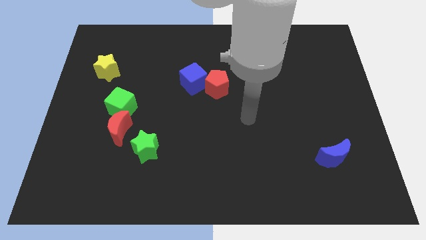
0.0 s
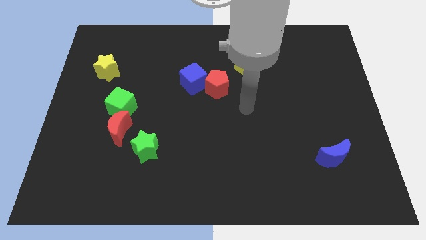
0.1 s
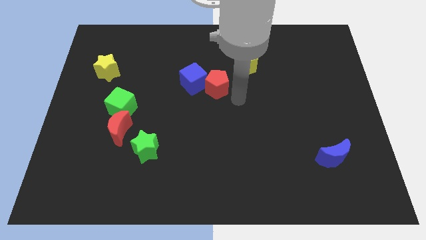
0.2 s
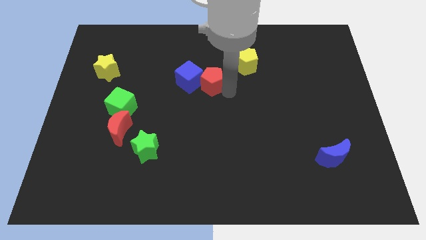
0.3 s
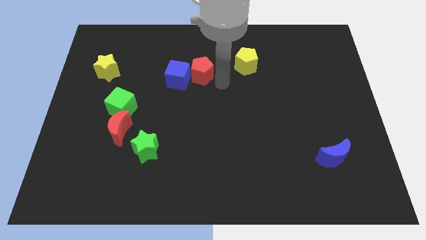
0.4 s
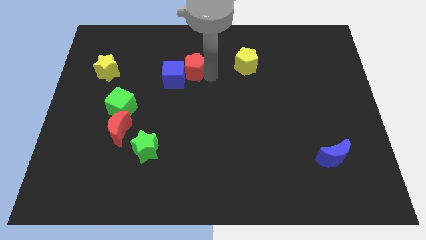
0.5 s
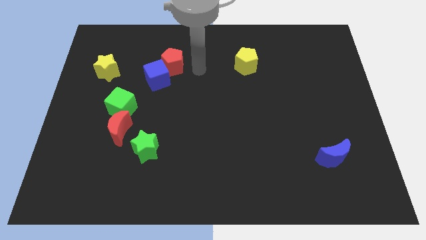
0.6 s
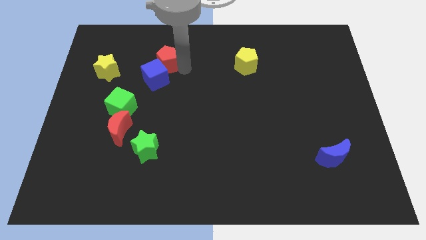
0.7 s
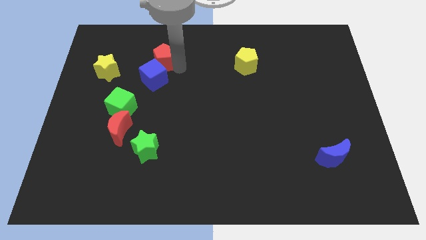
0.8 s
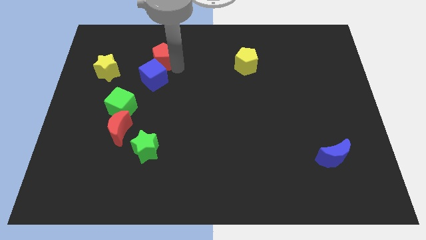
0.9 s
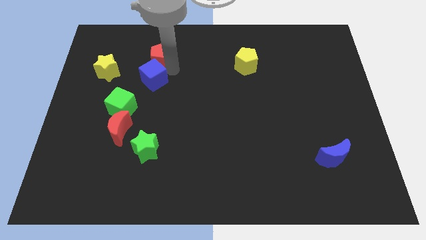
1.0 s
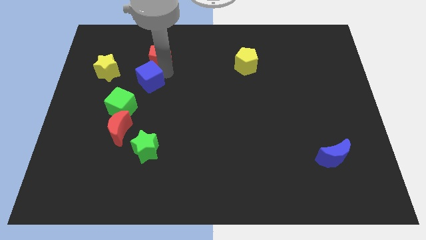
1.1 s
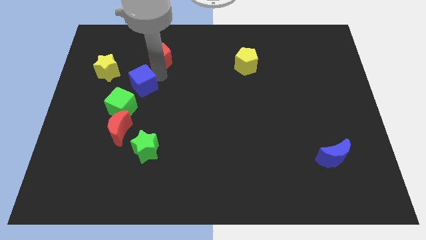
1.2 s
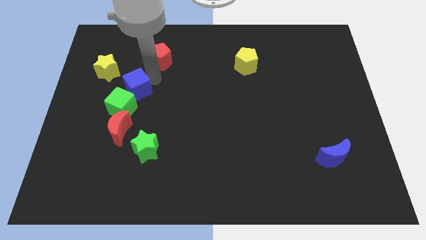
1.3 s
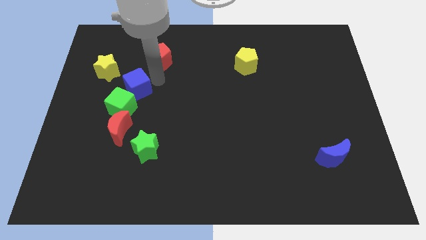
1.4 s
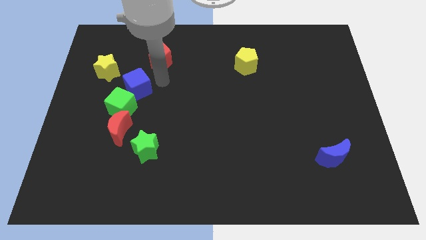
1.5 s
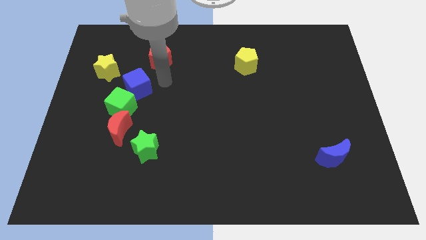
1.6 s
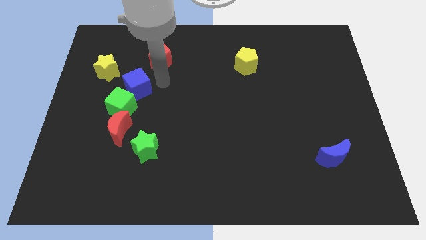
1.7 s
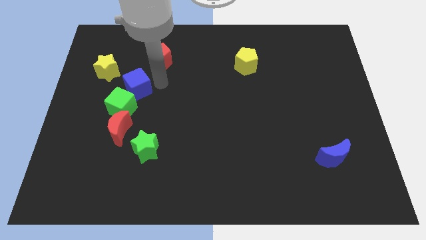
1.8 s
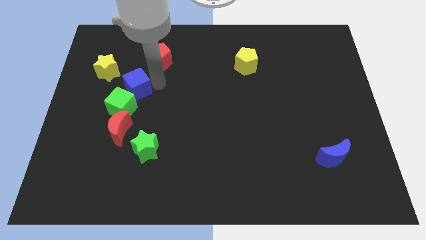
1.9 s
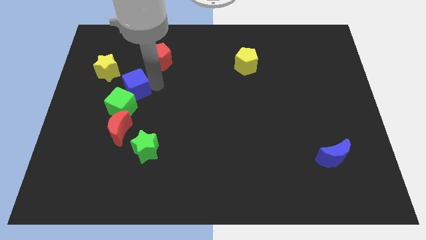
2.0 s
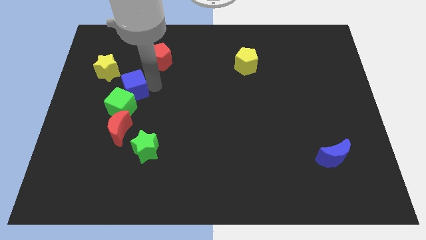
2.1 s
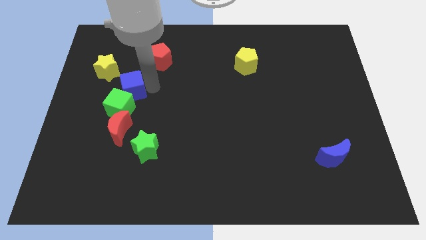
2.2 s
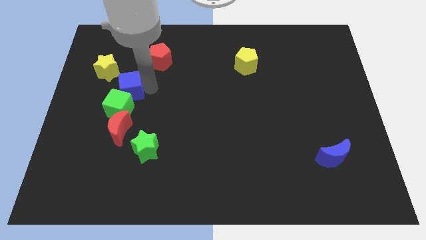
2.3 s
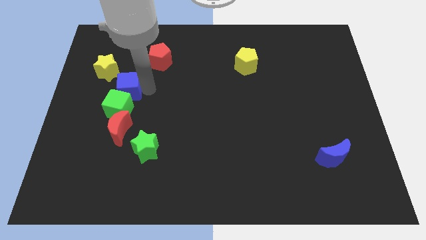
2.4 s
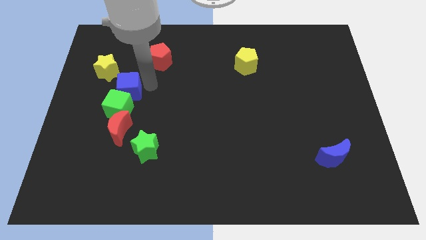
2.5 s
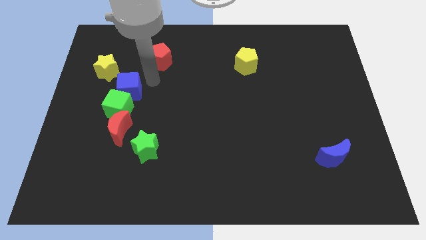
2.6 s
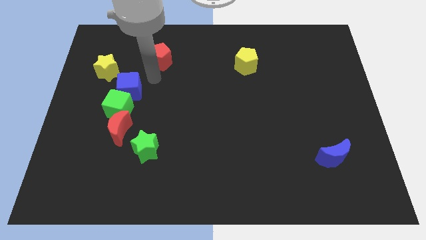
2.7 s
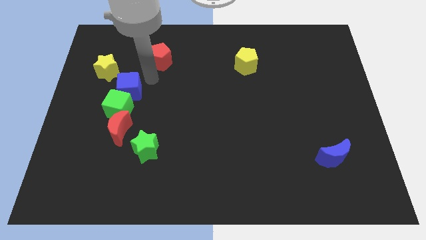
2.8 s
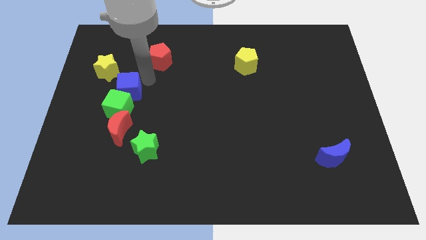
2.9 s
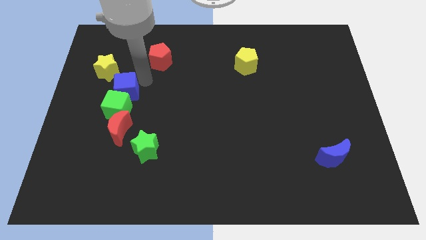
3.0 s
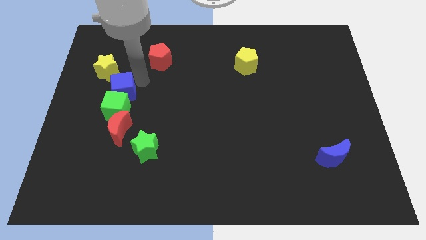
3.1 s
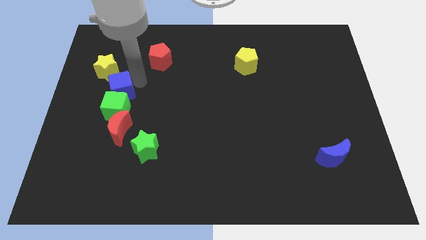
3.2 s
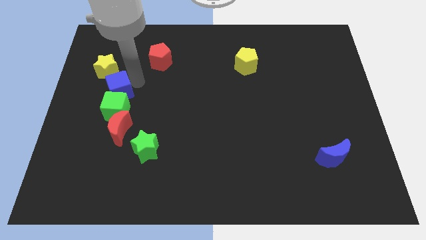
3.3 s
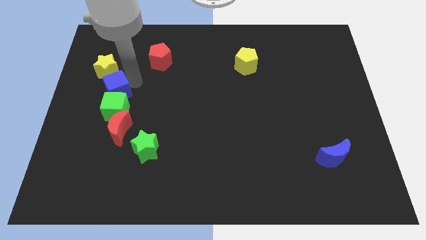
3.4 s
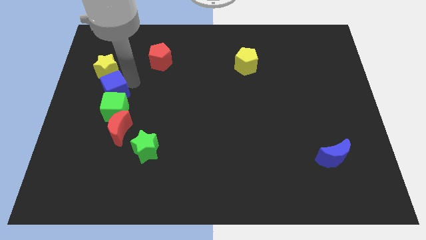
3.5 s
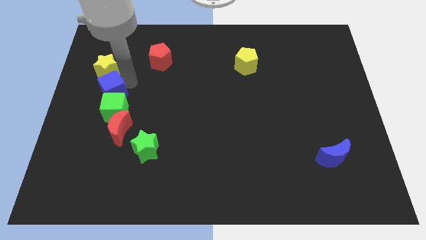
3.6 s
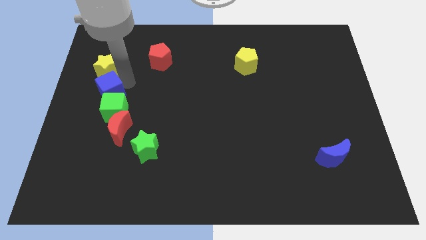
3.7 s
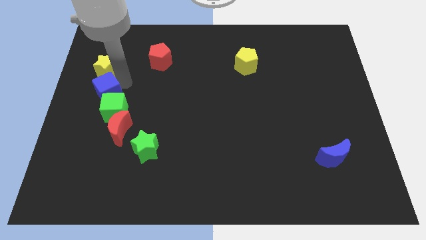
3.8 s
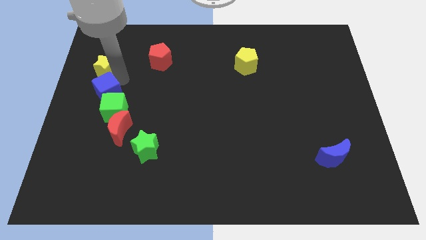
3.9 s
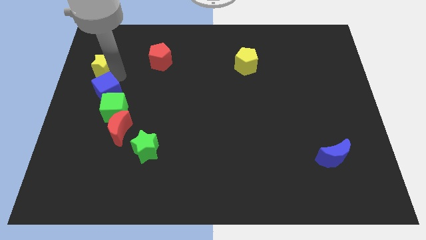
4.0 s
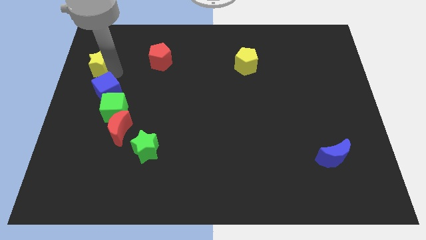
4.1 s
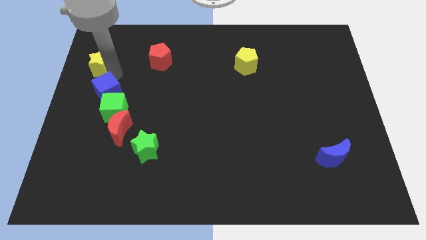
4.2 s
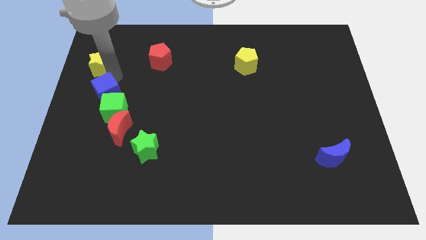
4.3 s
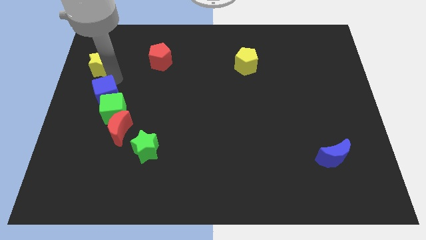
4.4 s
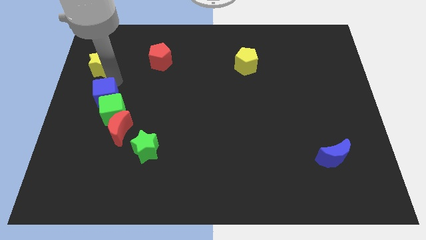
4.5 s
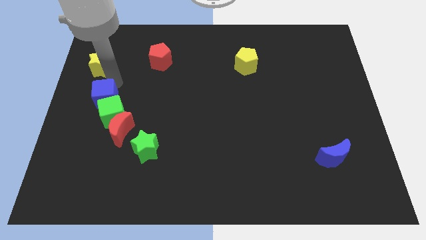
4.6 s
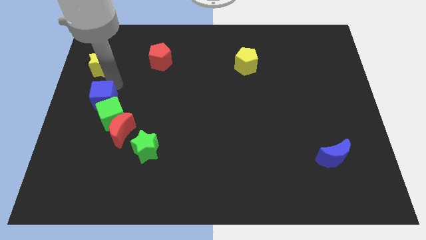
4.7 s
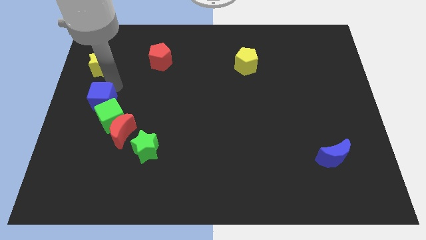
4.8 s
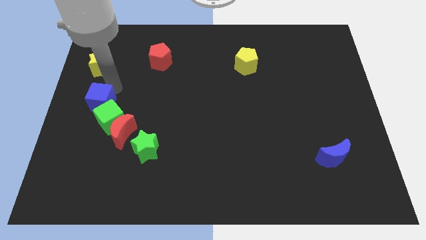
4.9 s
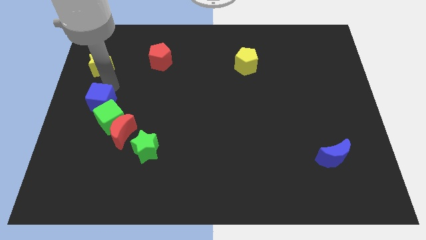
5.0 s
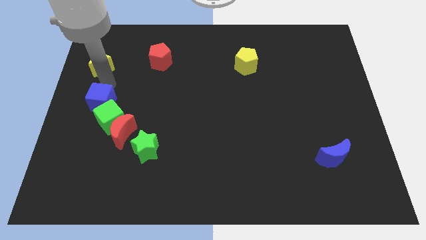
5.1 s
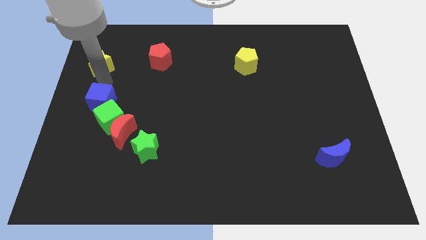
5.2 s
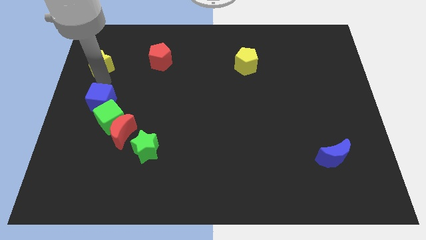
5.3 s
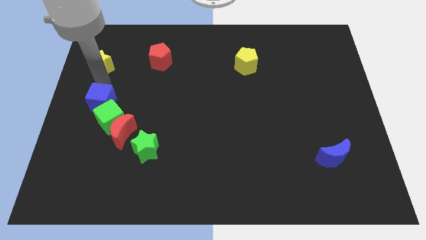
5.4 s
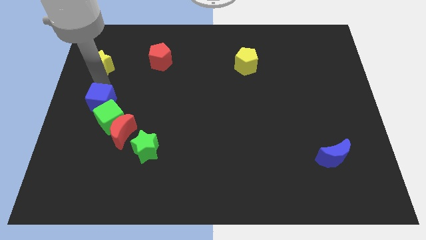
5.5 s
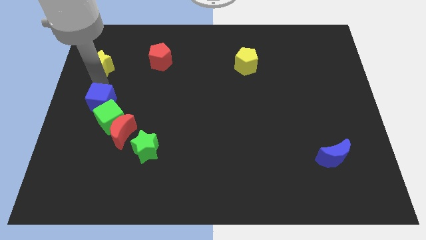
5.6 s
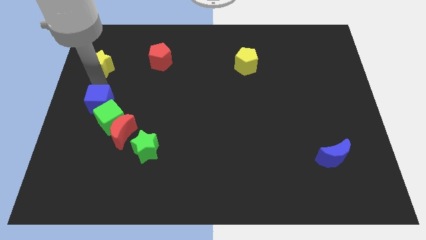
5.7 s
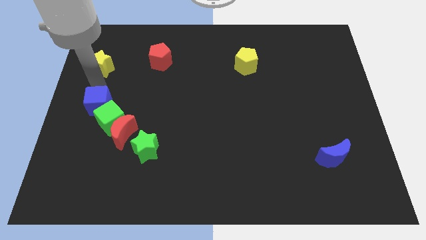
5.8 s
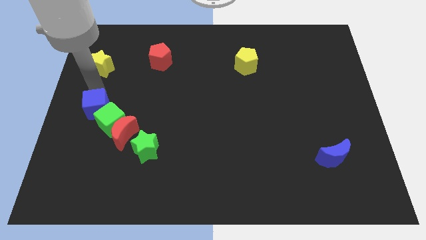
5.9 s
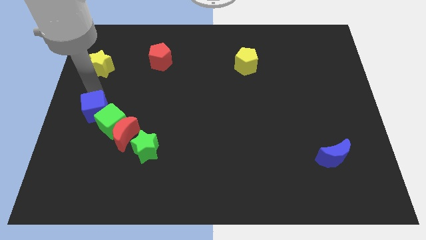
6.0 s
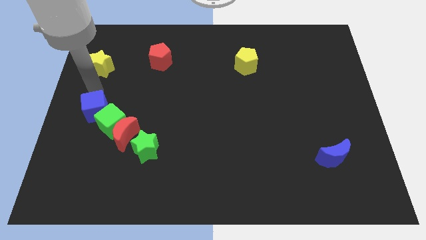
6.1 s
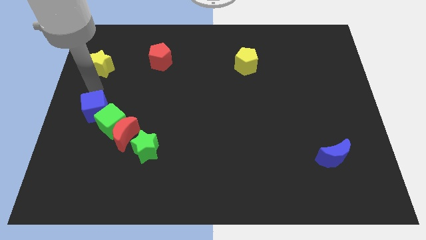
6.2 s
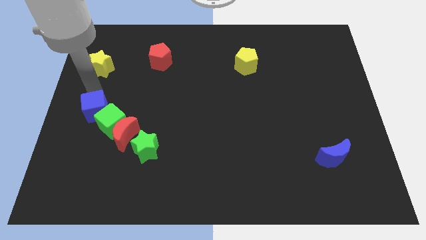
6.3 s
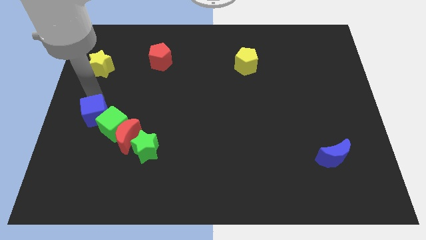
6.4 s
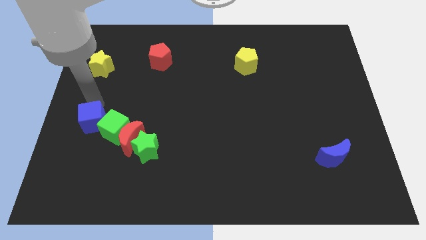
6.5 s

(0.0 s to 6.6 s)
push the blue cube diagonally down and to the left

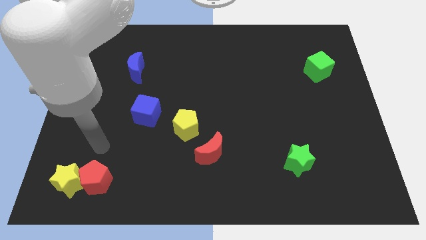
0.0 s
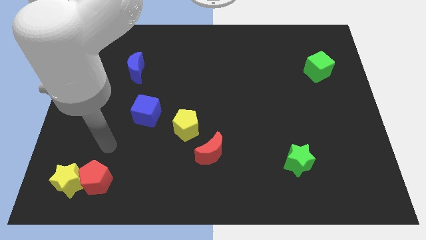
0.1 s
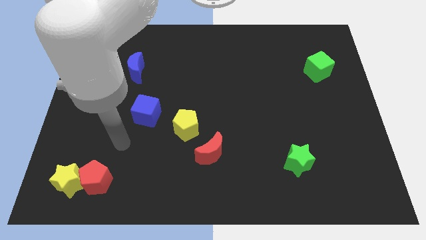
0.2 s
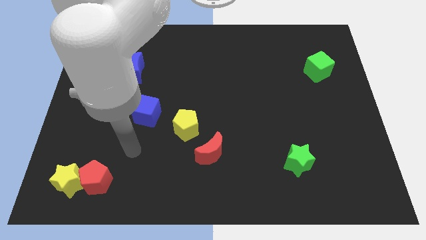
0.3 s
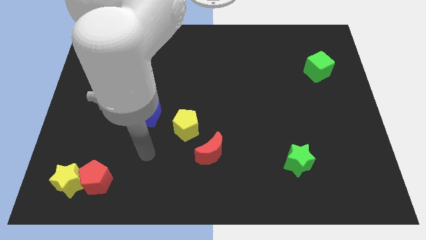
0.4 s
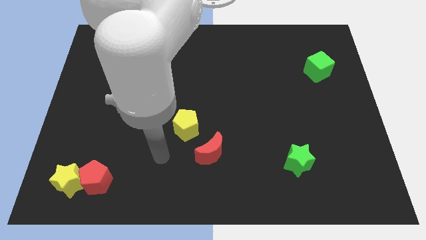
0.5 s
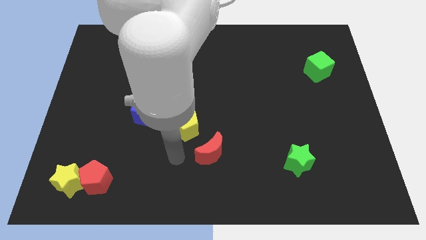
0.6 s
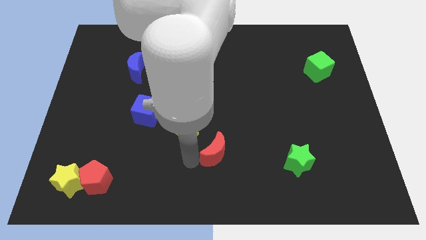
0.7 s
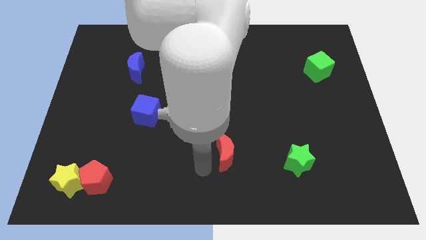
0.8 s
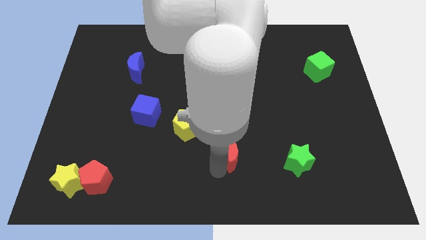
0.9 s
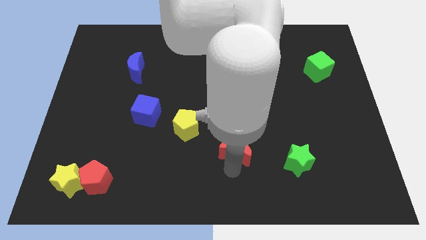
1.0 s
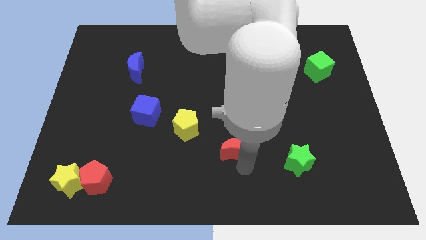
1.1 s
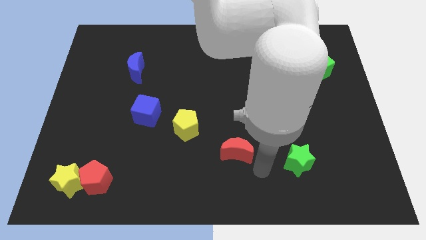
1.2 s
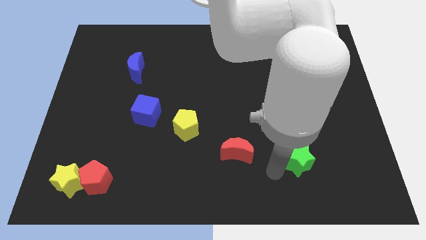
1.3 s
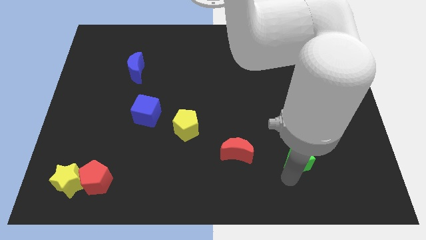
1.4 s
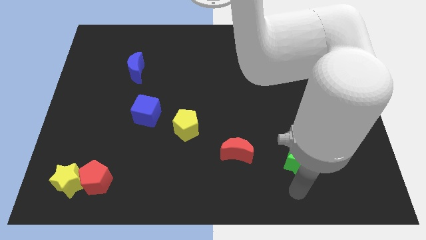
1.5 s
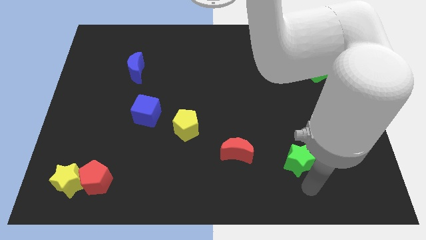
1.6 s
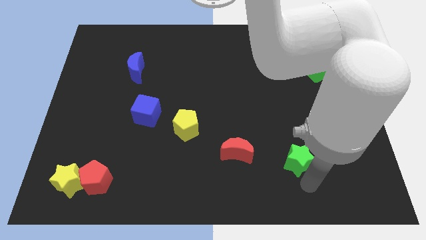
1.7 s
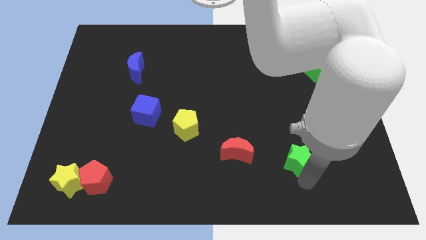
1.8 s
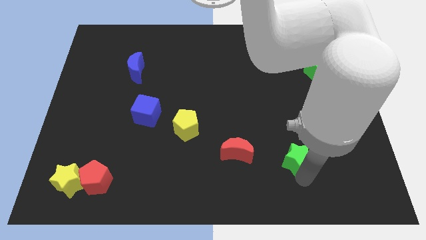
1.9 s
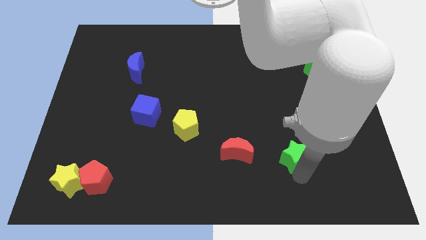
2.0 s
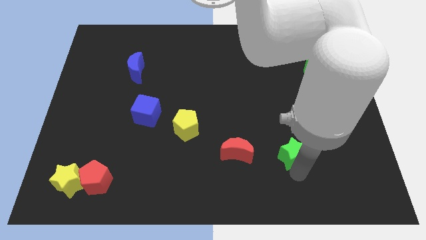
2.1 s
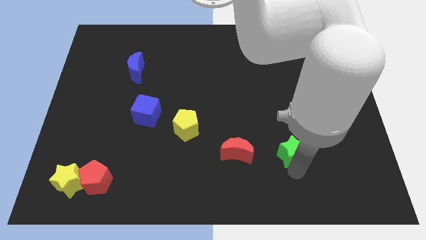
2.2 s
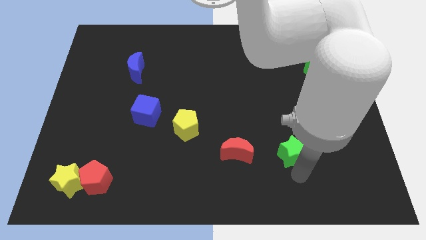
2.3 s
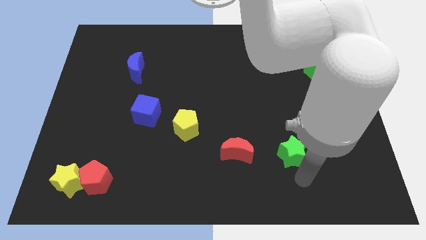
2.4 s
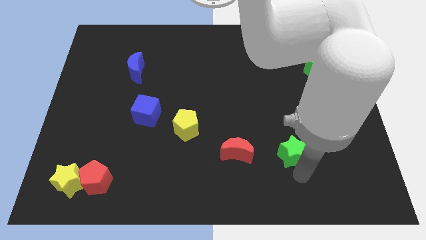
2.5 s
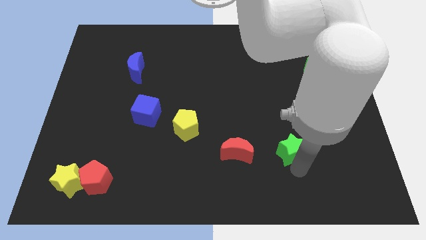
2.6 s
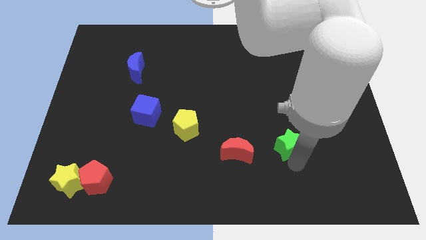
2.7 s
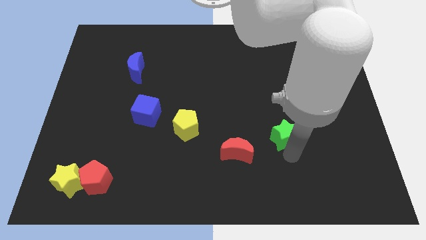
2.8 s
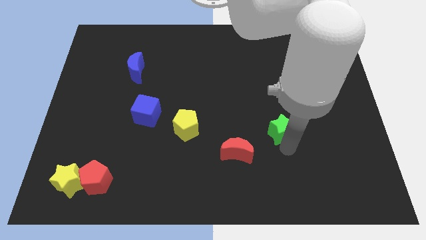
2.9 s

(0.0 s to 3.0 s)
push the green star upwards a little bit
